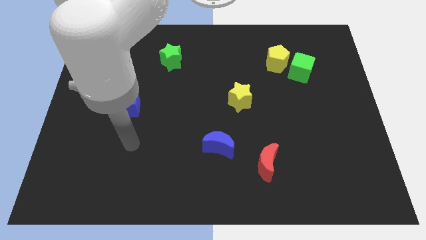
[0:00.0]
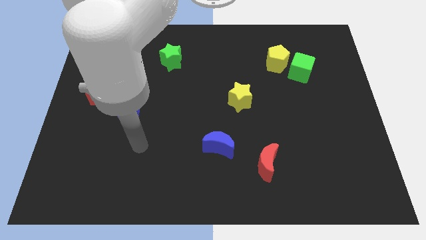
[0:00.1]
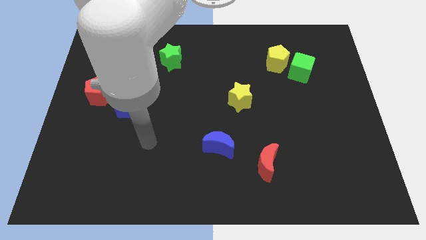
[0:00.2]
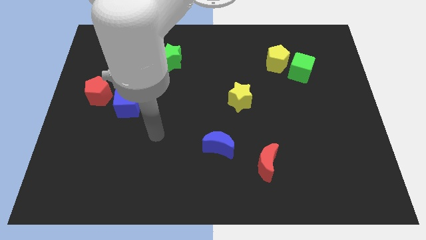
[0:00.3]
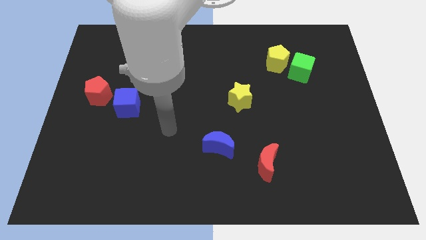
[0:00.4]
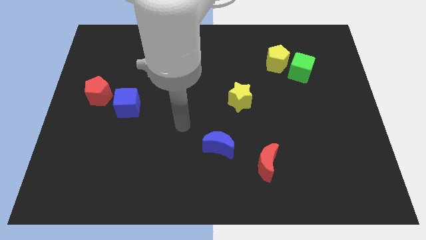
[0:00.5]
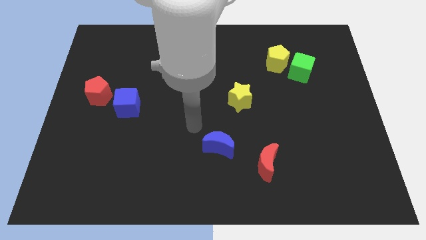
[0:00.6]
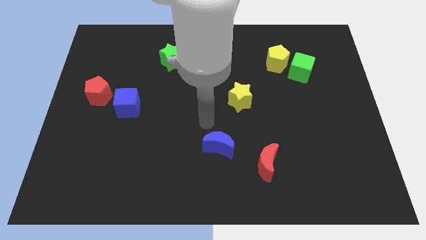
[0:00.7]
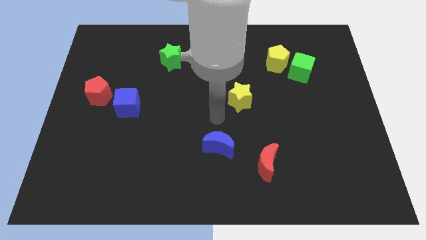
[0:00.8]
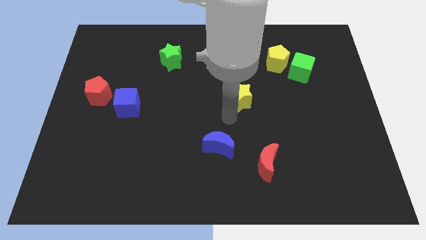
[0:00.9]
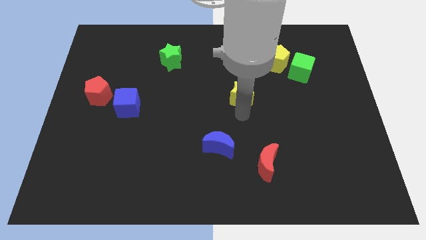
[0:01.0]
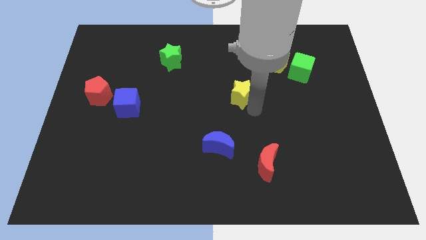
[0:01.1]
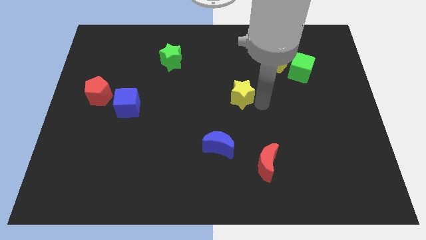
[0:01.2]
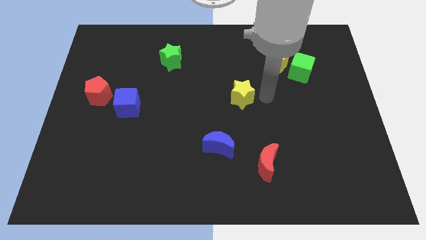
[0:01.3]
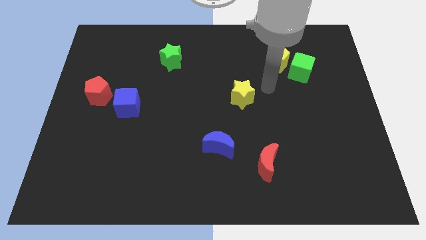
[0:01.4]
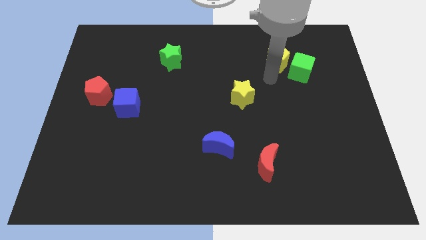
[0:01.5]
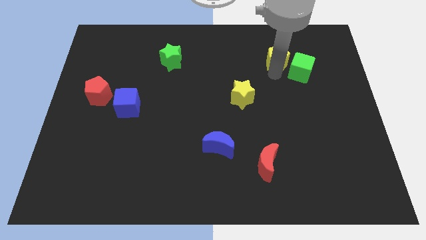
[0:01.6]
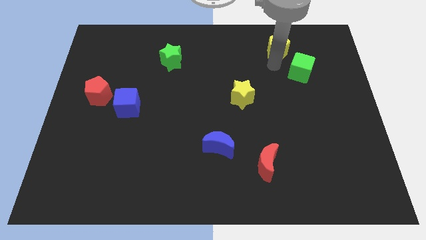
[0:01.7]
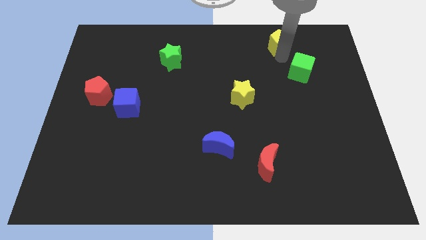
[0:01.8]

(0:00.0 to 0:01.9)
move the green cube away from the yellow pentagon

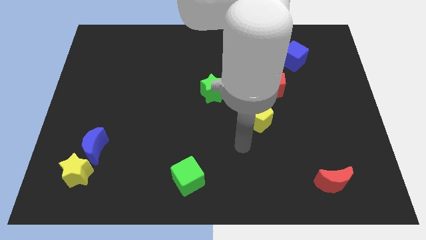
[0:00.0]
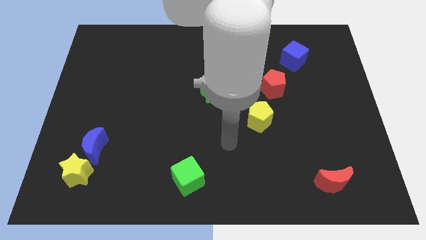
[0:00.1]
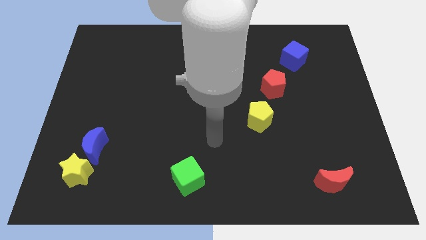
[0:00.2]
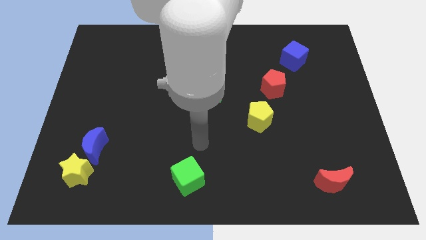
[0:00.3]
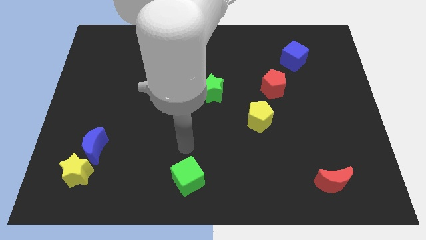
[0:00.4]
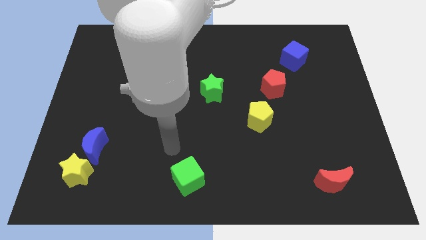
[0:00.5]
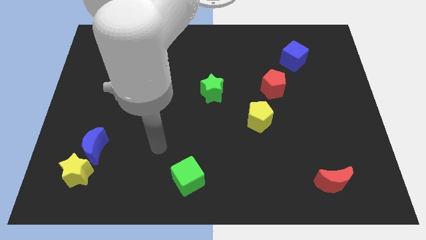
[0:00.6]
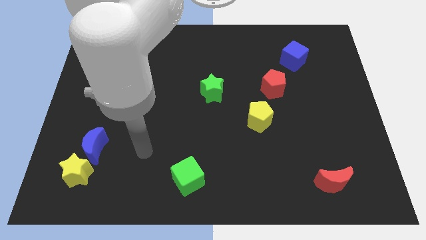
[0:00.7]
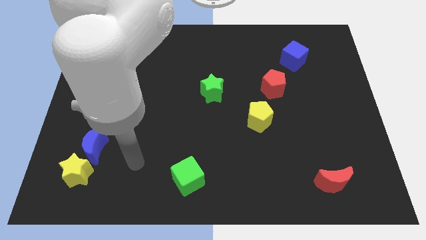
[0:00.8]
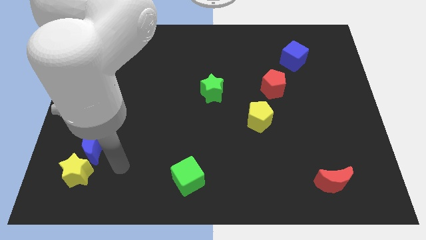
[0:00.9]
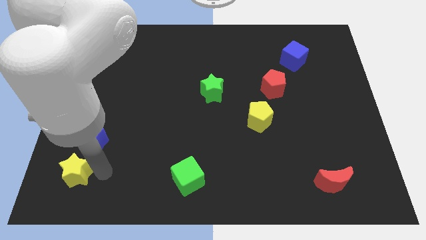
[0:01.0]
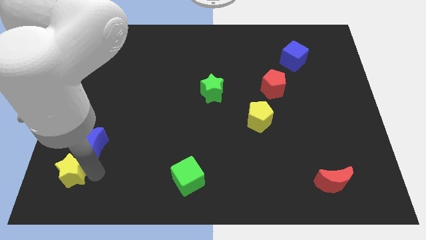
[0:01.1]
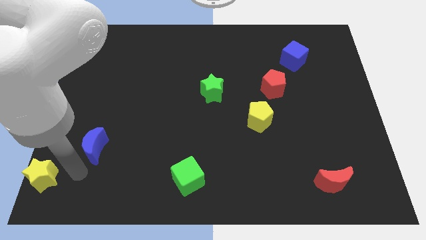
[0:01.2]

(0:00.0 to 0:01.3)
separate the blue moon from the yellow star

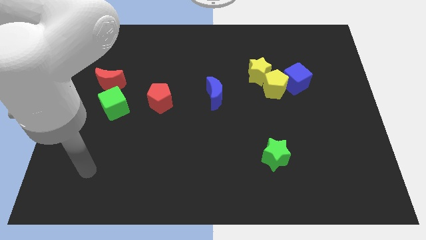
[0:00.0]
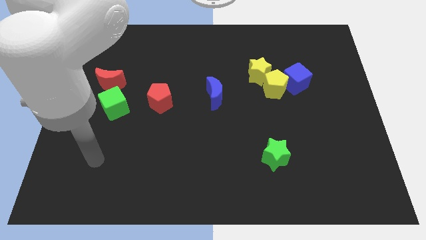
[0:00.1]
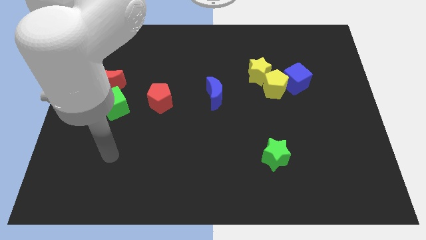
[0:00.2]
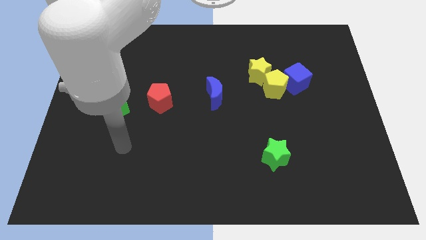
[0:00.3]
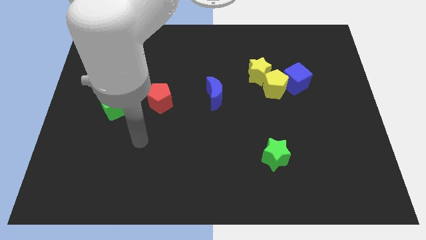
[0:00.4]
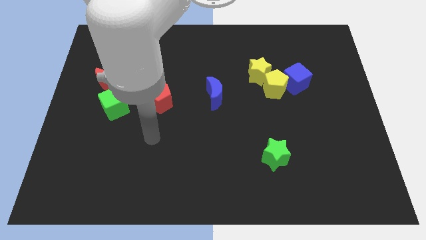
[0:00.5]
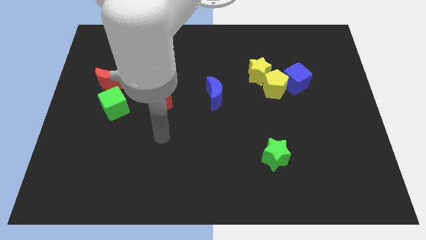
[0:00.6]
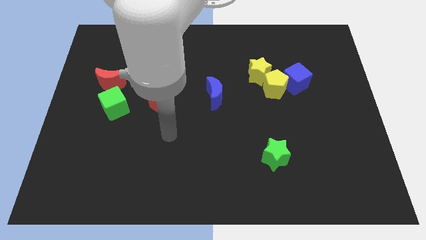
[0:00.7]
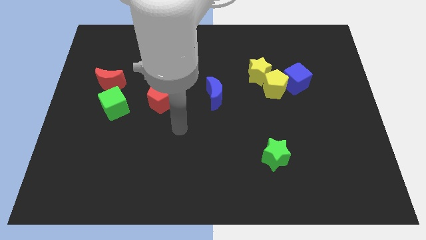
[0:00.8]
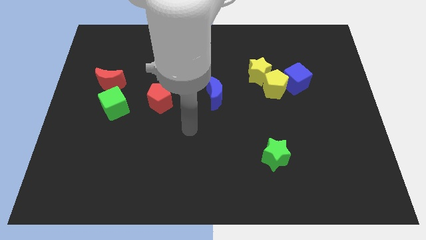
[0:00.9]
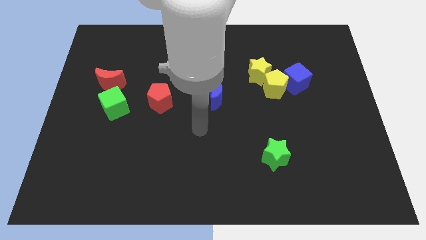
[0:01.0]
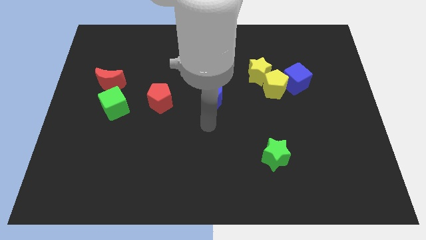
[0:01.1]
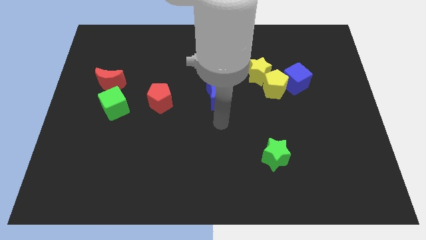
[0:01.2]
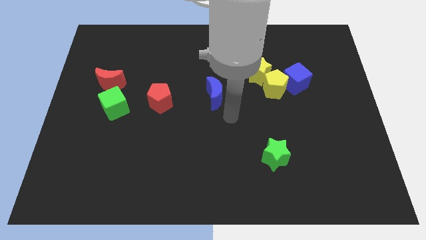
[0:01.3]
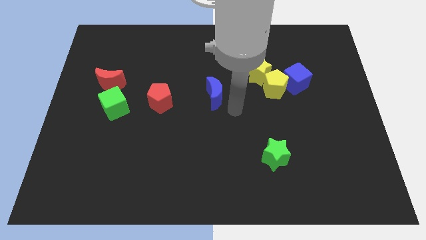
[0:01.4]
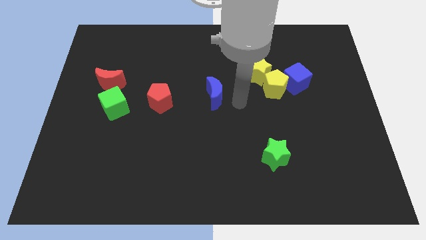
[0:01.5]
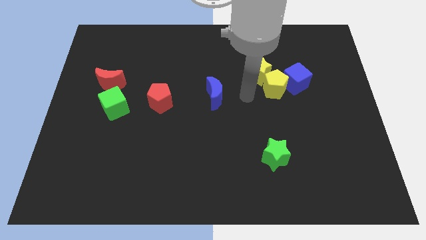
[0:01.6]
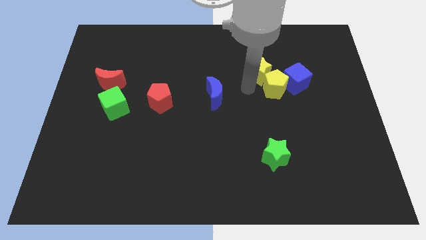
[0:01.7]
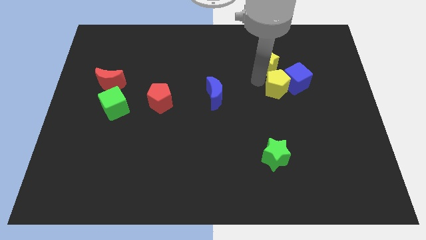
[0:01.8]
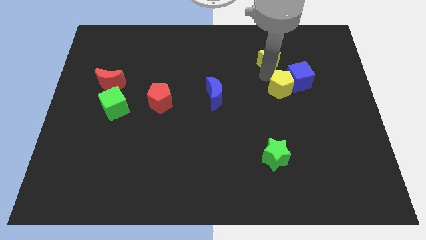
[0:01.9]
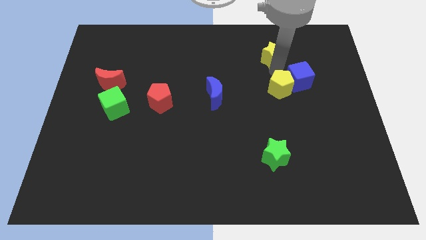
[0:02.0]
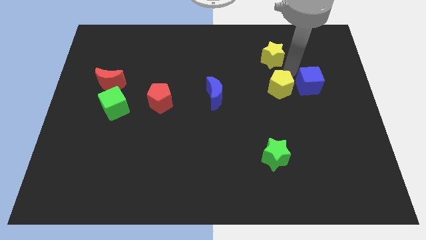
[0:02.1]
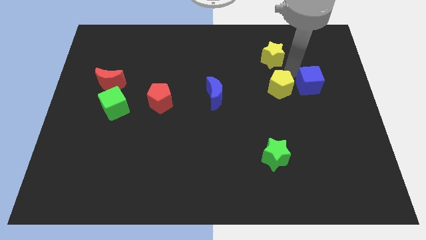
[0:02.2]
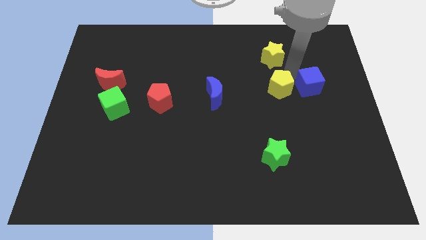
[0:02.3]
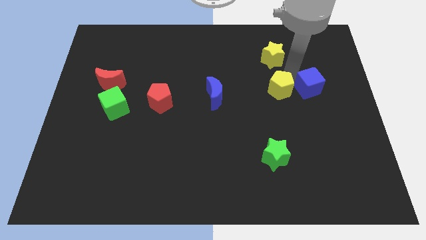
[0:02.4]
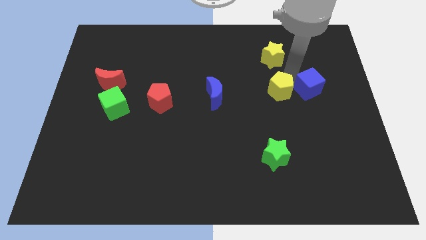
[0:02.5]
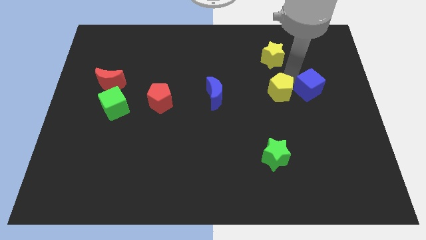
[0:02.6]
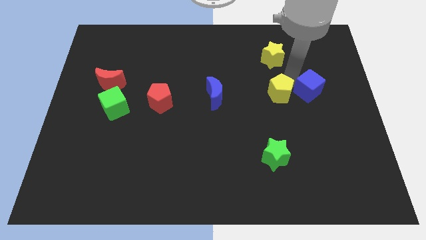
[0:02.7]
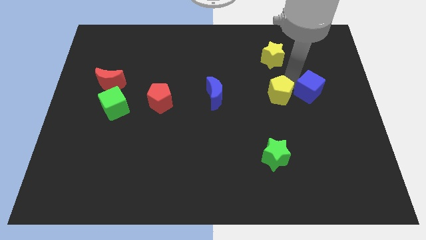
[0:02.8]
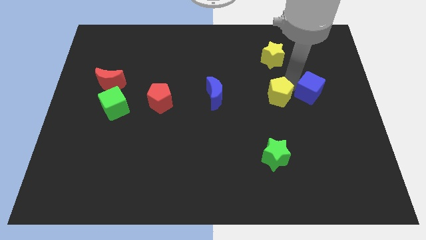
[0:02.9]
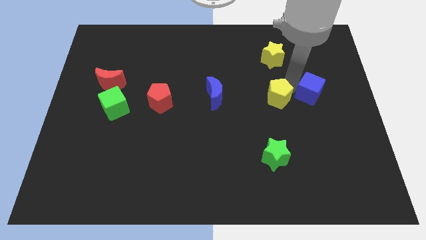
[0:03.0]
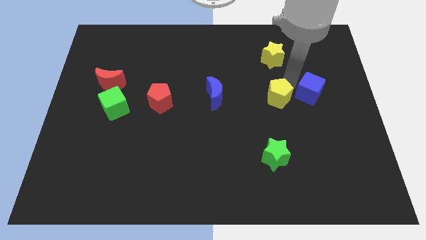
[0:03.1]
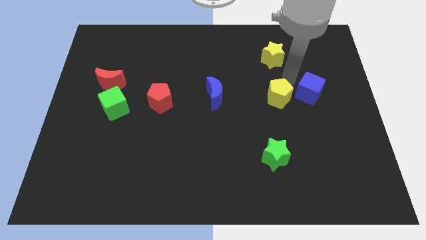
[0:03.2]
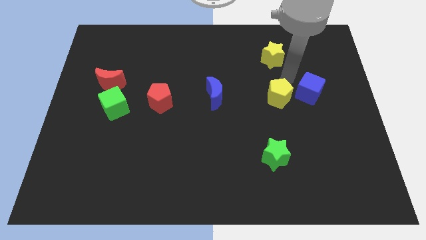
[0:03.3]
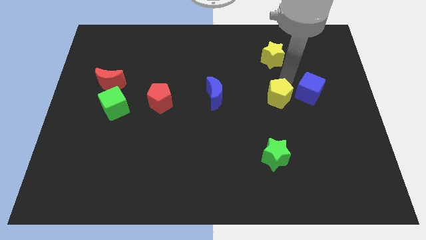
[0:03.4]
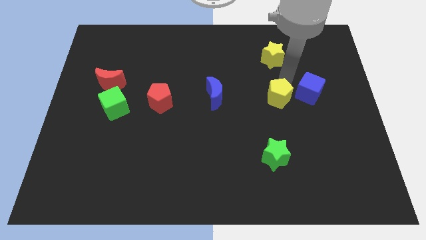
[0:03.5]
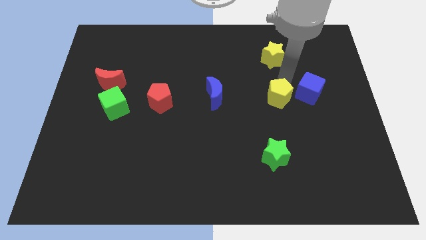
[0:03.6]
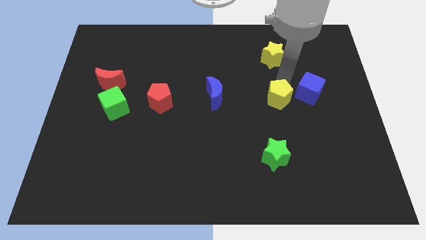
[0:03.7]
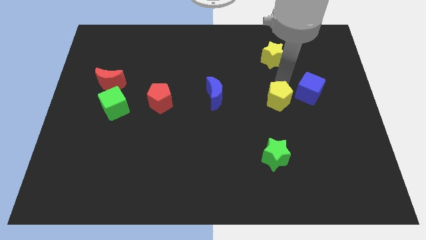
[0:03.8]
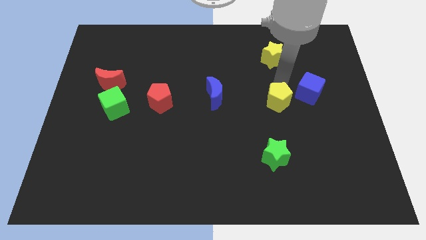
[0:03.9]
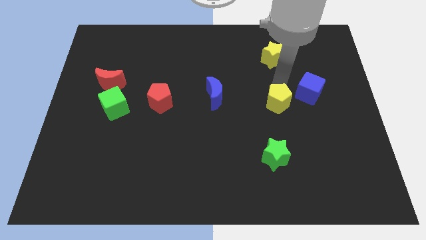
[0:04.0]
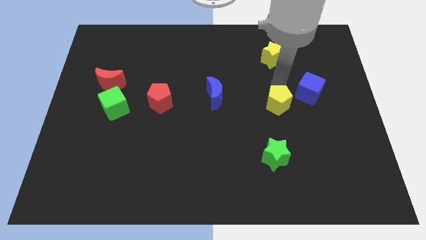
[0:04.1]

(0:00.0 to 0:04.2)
move the yellow pentagon away from the yellow star and blue cube

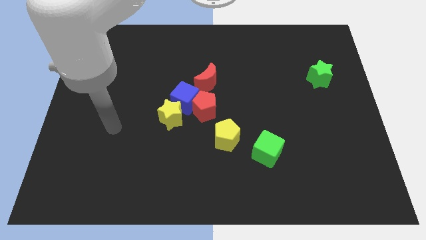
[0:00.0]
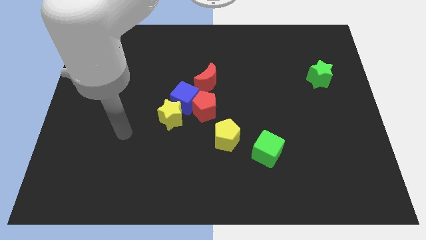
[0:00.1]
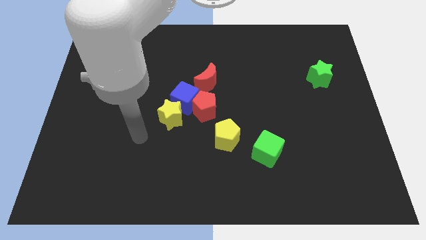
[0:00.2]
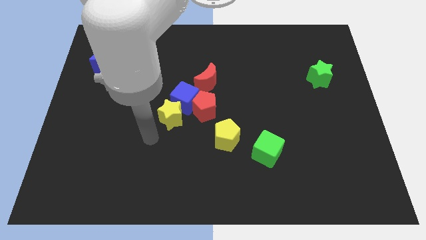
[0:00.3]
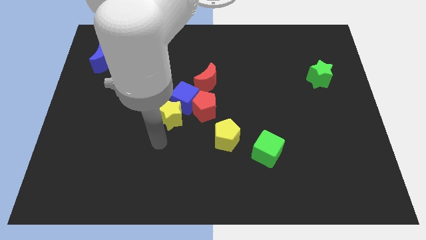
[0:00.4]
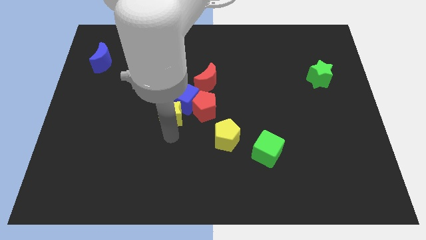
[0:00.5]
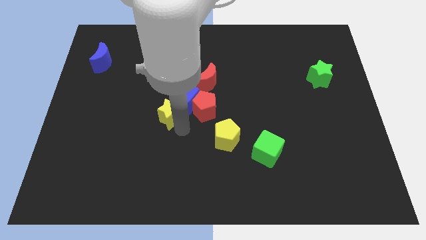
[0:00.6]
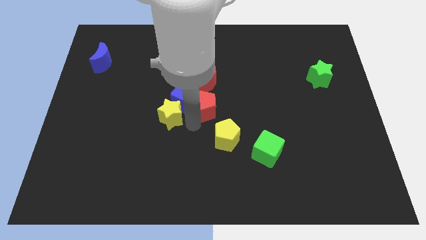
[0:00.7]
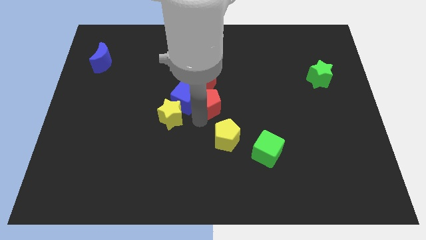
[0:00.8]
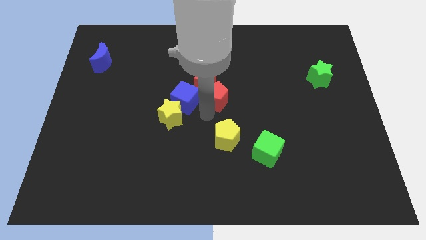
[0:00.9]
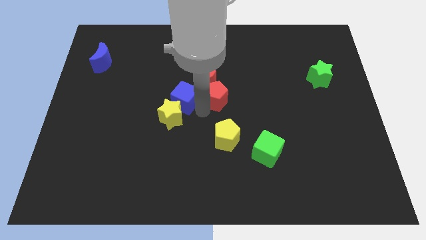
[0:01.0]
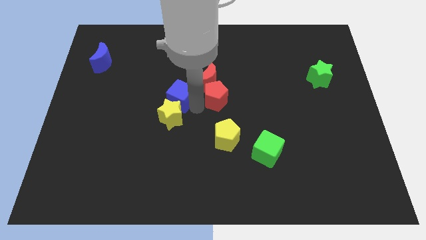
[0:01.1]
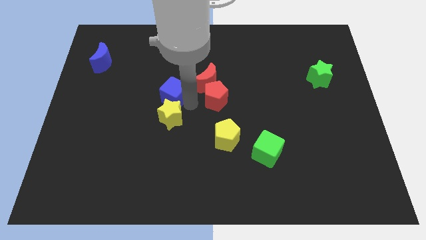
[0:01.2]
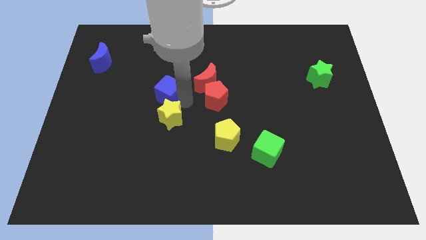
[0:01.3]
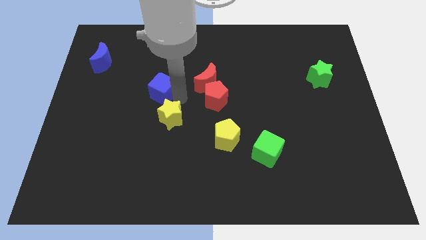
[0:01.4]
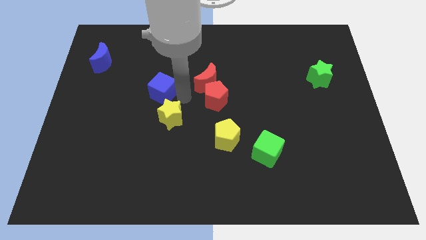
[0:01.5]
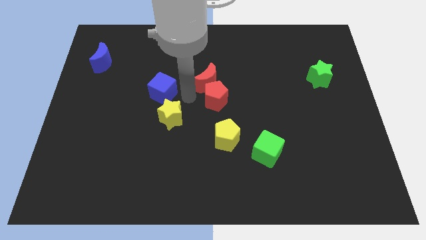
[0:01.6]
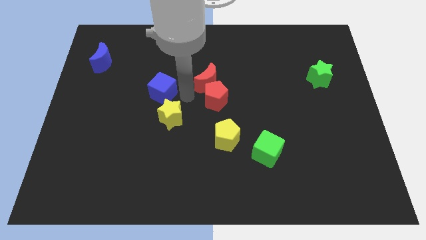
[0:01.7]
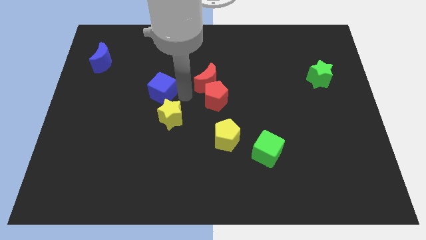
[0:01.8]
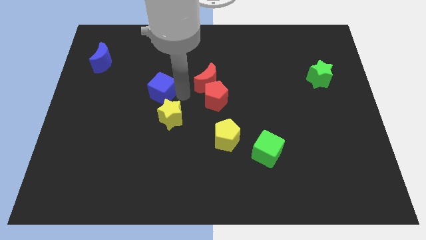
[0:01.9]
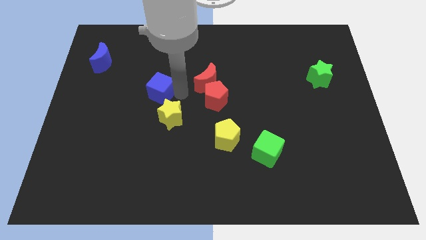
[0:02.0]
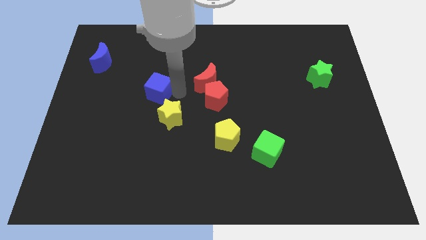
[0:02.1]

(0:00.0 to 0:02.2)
move the blue cube away from the red pentagon, yellow star, and red moon
